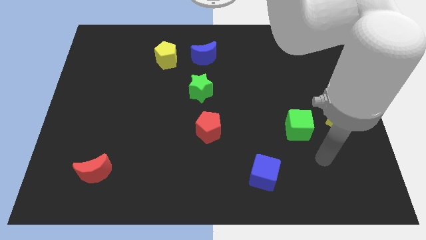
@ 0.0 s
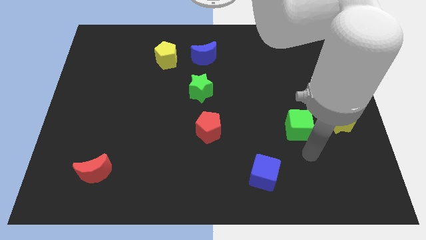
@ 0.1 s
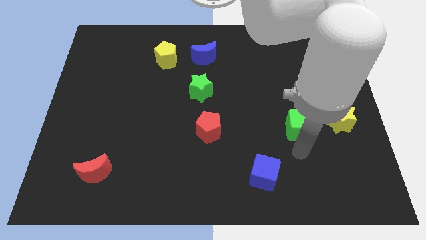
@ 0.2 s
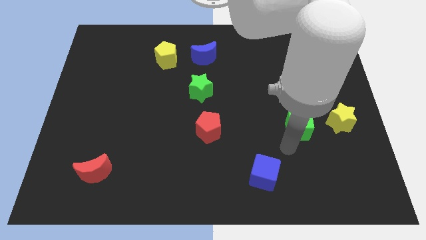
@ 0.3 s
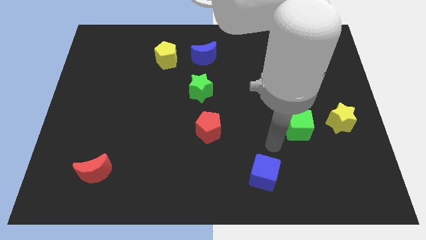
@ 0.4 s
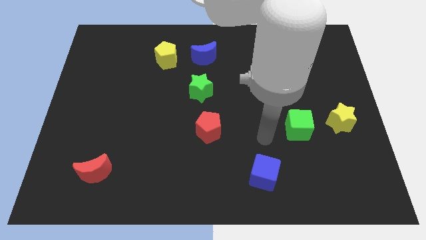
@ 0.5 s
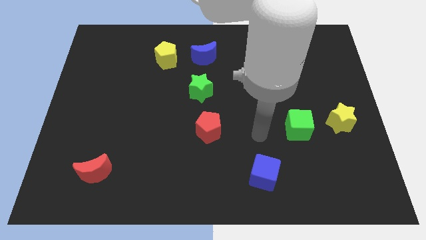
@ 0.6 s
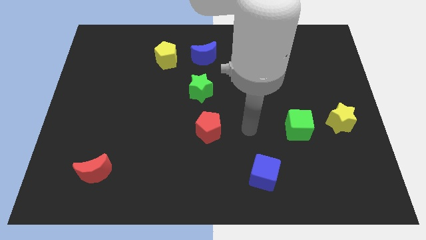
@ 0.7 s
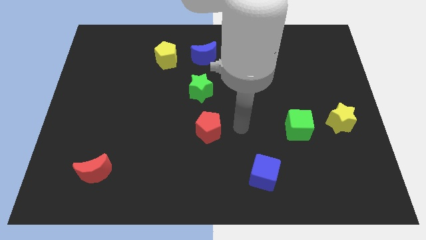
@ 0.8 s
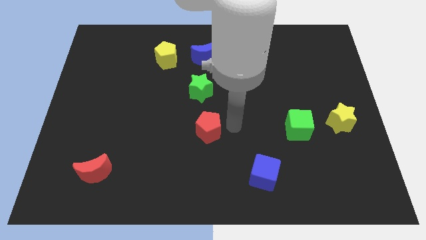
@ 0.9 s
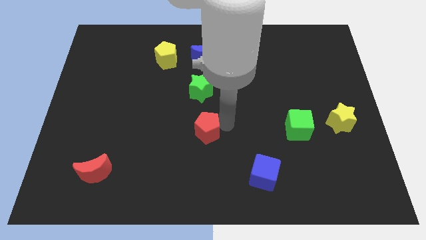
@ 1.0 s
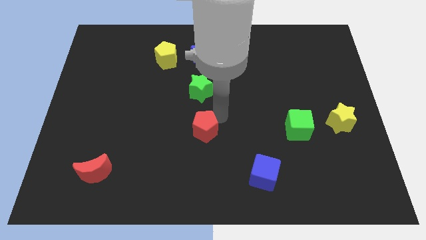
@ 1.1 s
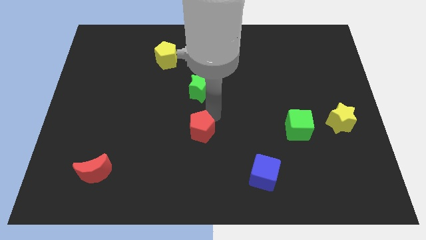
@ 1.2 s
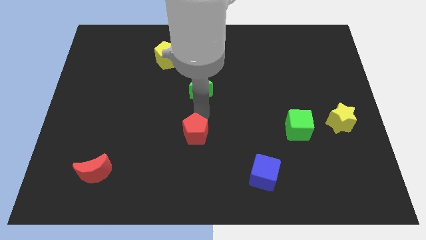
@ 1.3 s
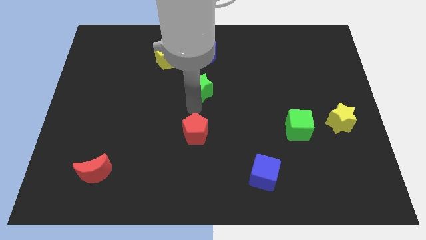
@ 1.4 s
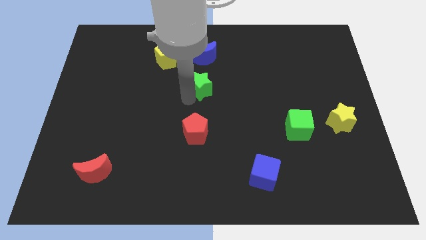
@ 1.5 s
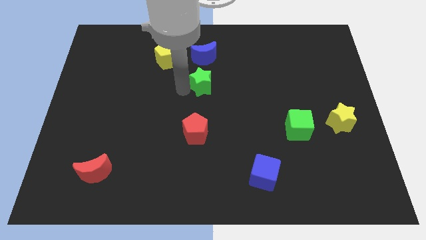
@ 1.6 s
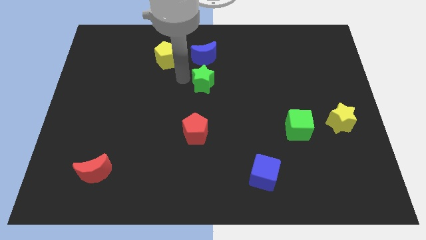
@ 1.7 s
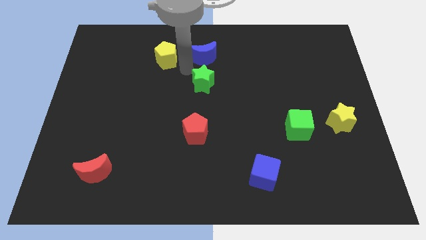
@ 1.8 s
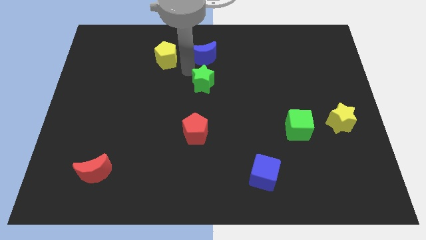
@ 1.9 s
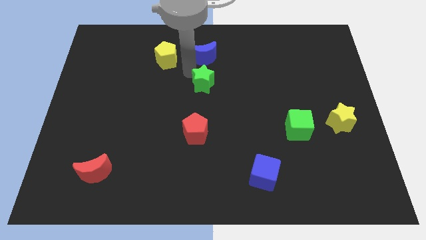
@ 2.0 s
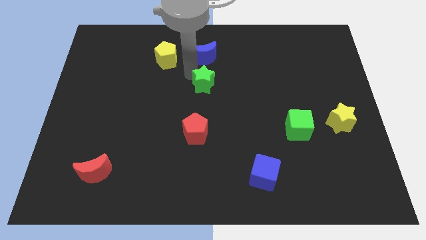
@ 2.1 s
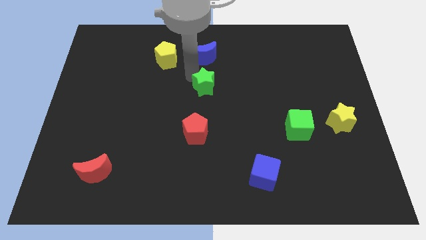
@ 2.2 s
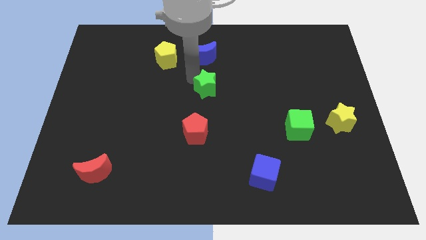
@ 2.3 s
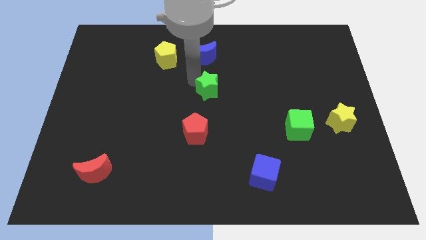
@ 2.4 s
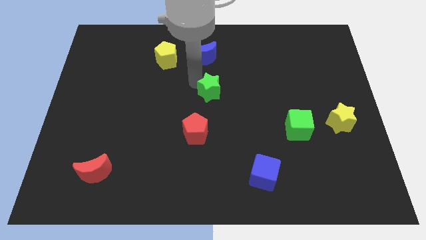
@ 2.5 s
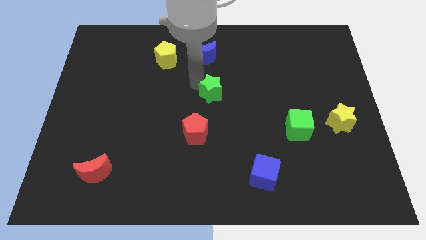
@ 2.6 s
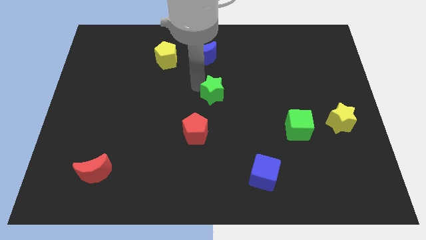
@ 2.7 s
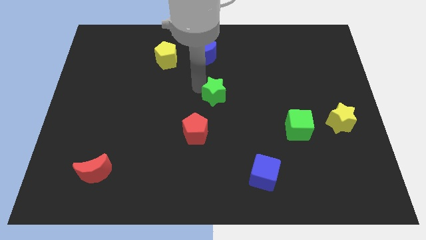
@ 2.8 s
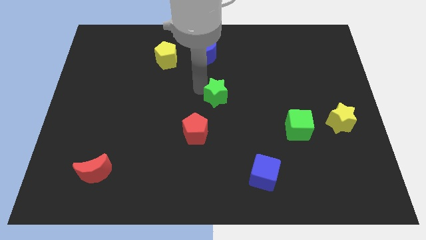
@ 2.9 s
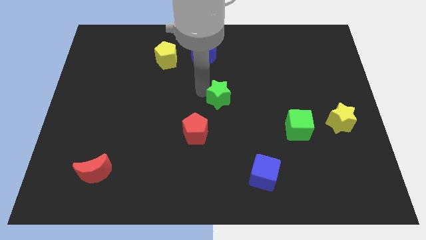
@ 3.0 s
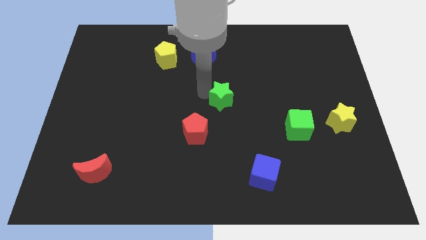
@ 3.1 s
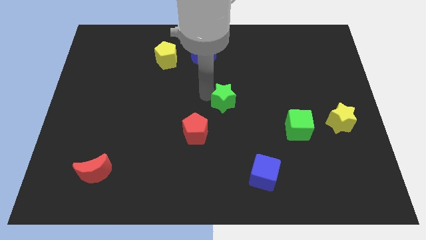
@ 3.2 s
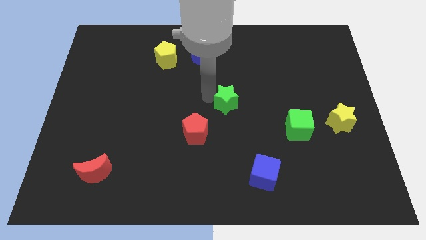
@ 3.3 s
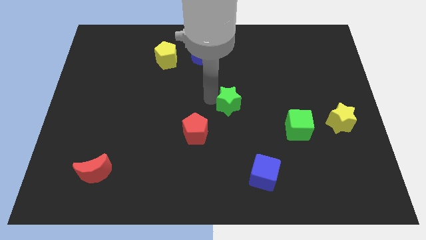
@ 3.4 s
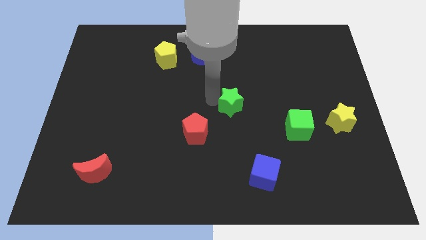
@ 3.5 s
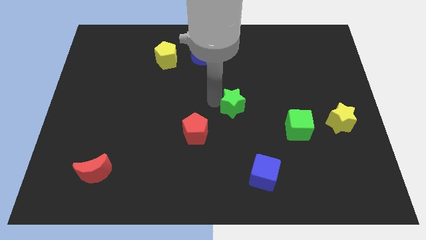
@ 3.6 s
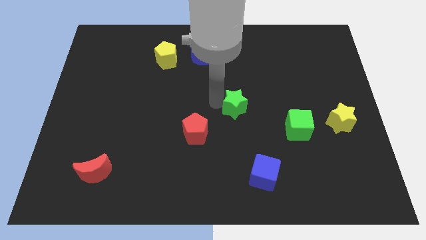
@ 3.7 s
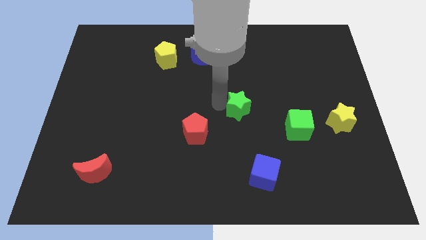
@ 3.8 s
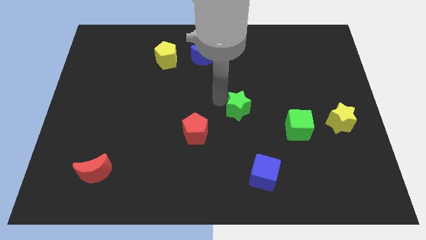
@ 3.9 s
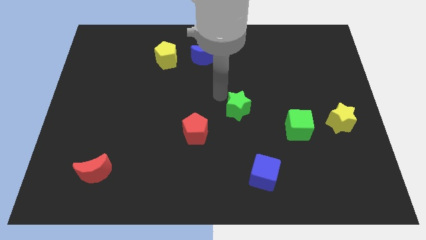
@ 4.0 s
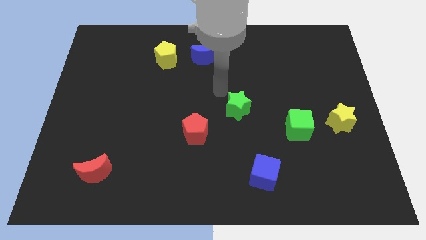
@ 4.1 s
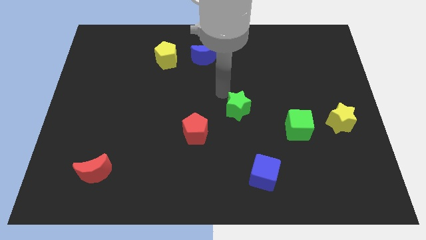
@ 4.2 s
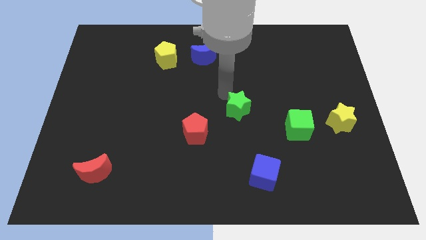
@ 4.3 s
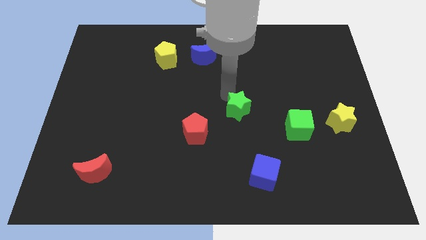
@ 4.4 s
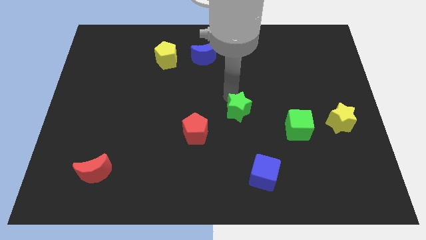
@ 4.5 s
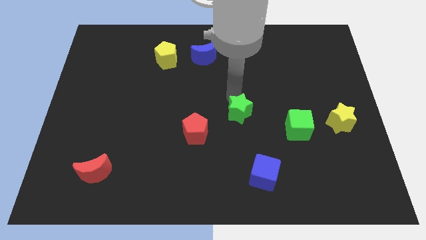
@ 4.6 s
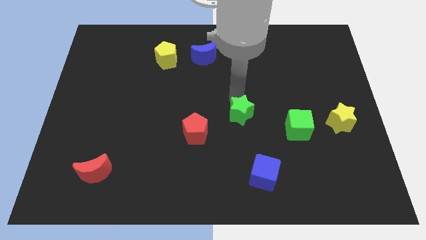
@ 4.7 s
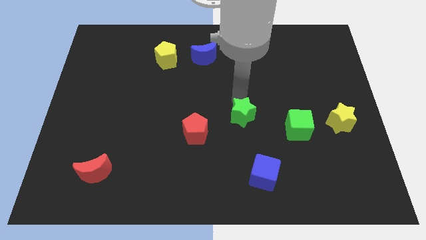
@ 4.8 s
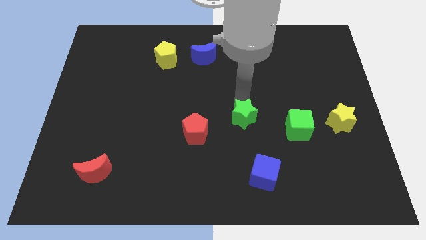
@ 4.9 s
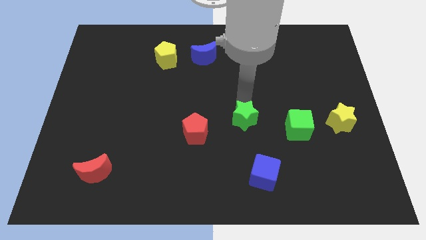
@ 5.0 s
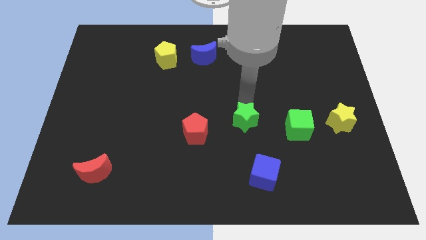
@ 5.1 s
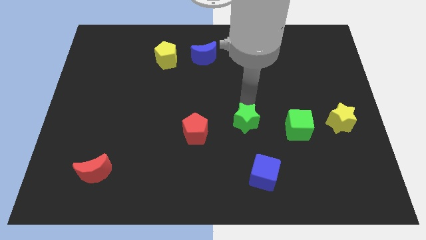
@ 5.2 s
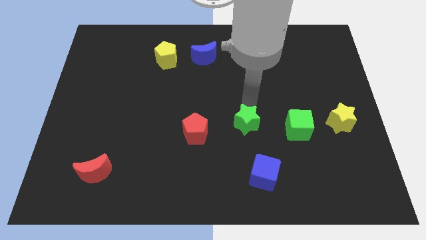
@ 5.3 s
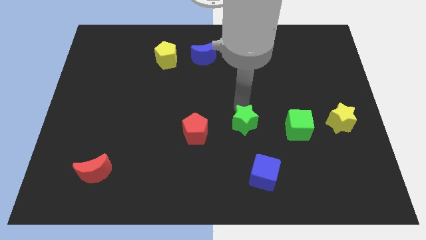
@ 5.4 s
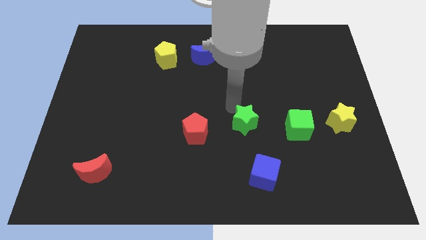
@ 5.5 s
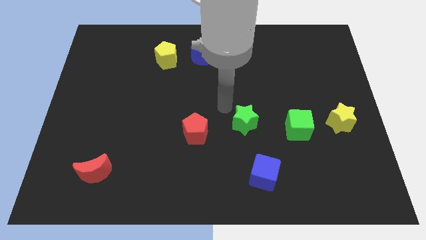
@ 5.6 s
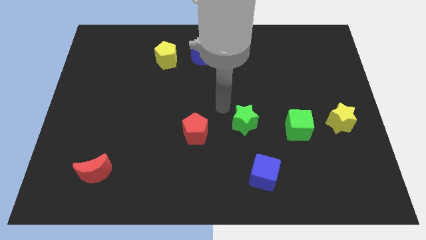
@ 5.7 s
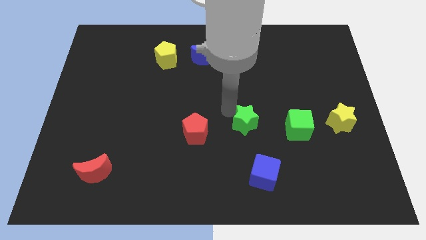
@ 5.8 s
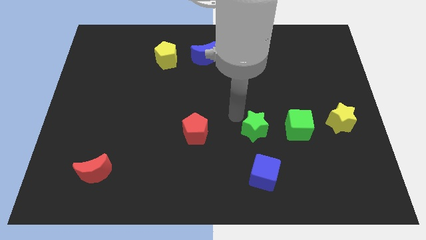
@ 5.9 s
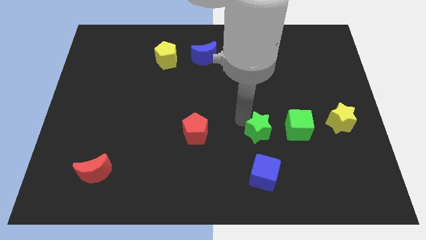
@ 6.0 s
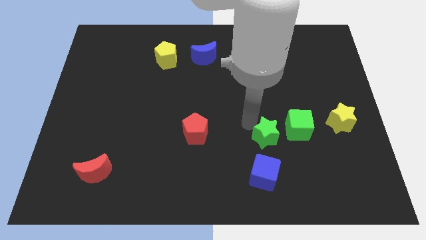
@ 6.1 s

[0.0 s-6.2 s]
slide the green star downwards and right diagonally

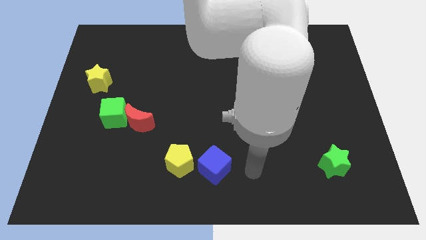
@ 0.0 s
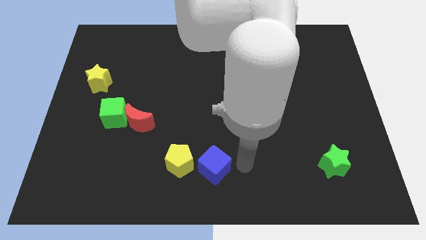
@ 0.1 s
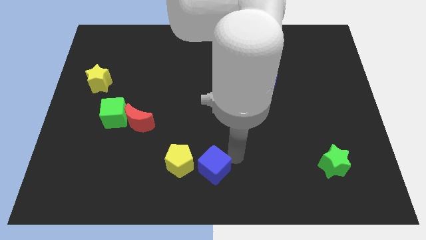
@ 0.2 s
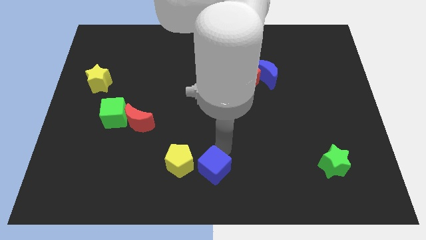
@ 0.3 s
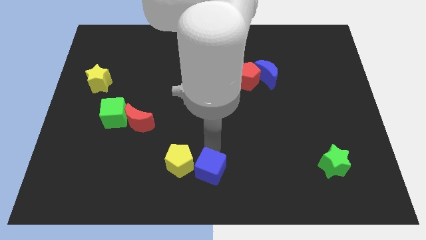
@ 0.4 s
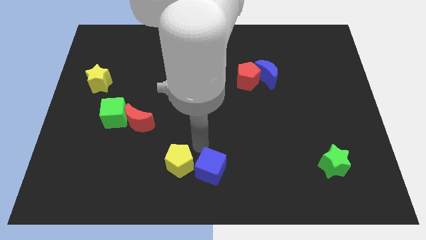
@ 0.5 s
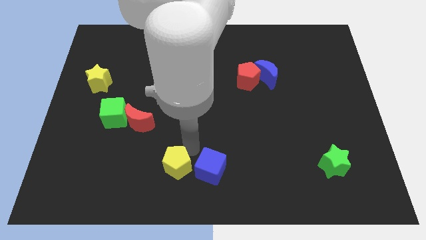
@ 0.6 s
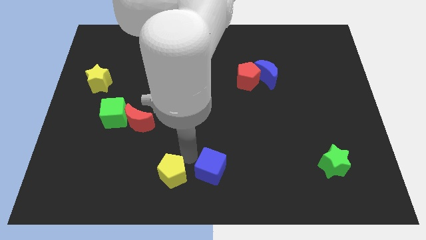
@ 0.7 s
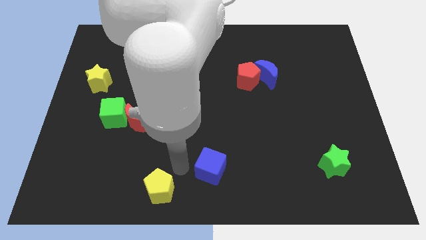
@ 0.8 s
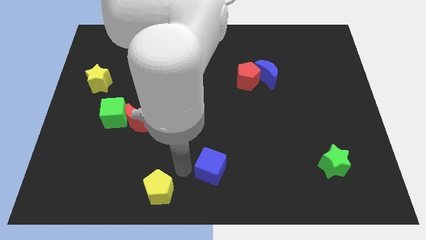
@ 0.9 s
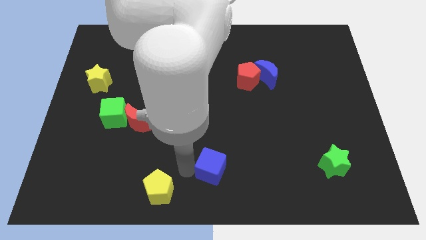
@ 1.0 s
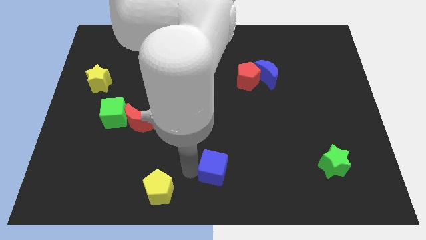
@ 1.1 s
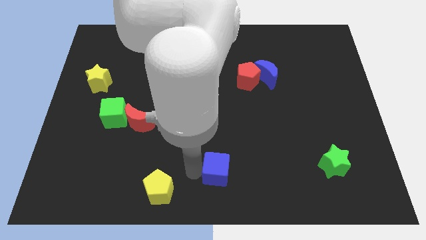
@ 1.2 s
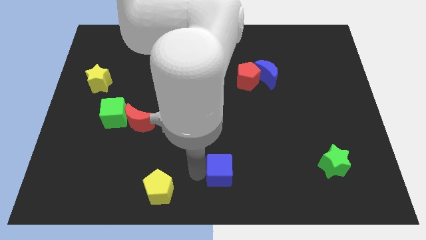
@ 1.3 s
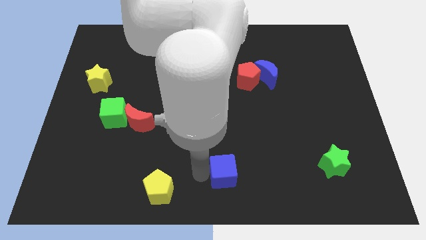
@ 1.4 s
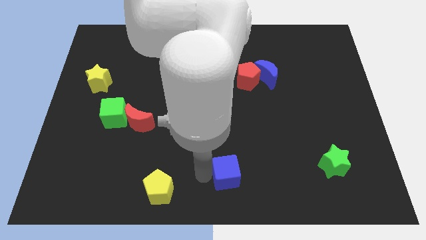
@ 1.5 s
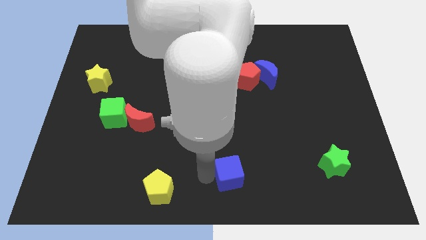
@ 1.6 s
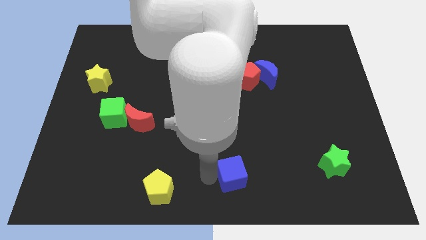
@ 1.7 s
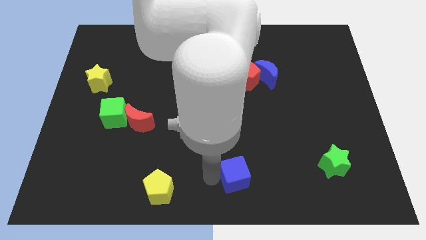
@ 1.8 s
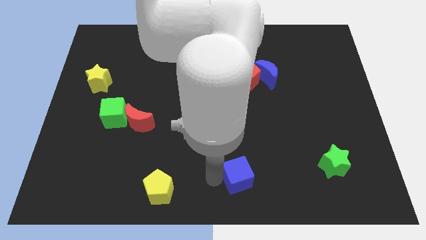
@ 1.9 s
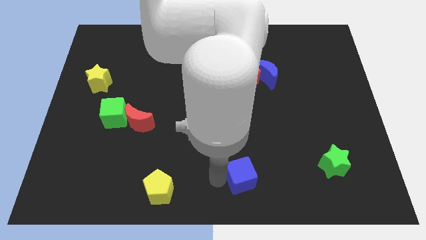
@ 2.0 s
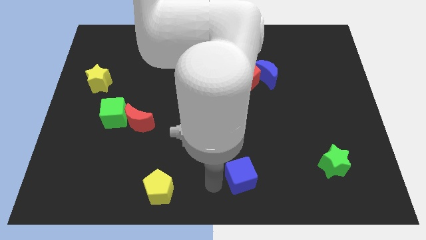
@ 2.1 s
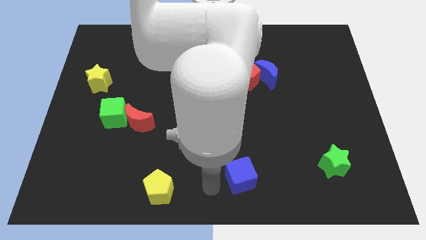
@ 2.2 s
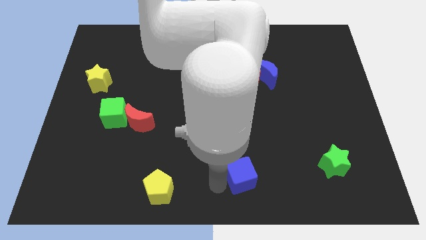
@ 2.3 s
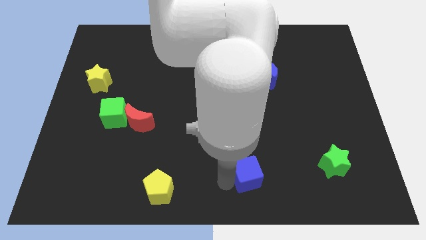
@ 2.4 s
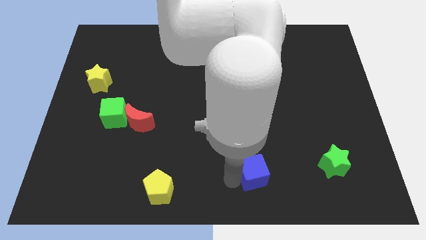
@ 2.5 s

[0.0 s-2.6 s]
slightly move the blue cube right
